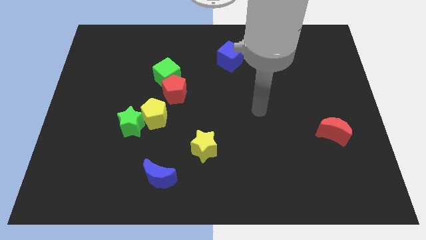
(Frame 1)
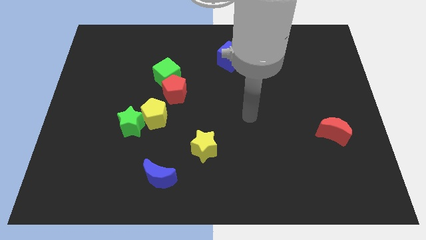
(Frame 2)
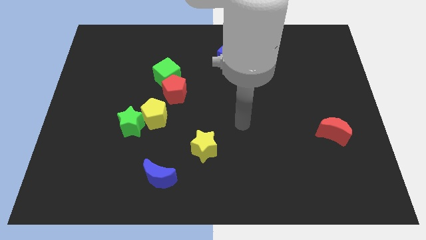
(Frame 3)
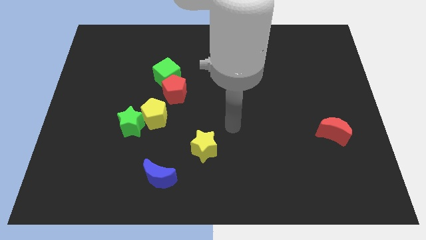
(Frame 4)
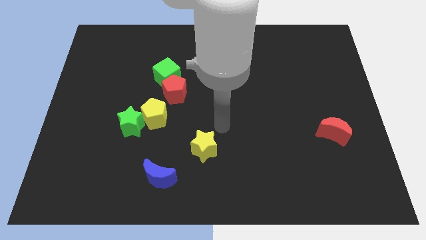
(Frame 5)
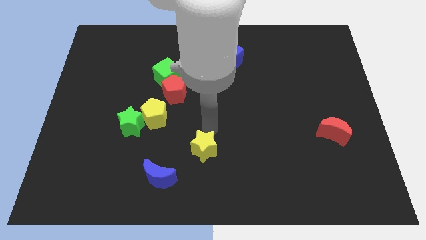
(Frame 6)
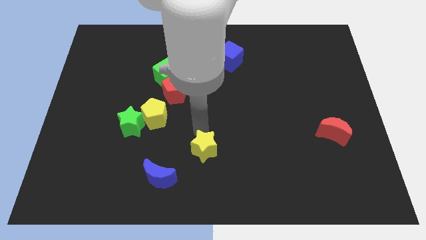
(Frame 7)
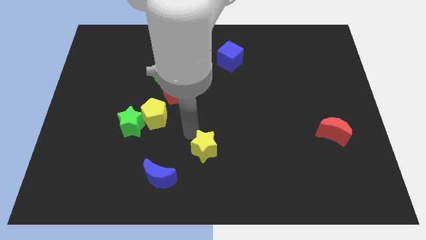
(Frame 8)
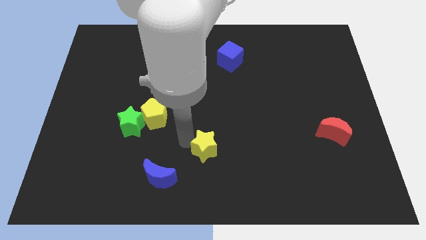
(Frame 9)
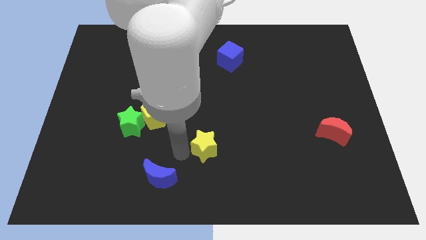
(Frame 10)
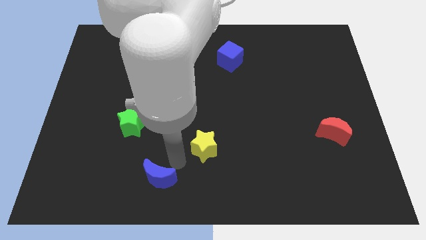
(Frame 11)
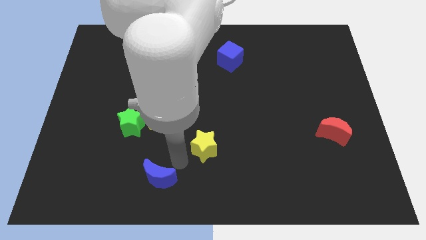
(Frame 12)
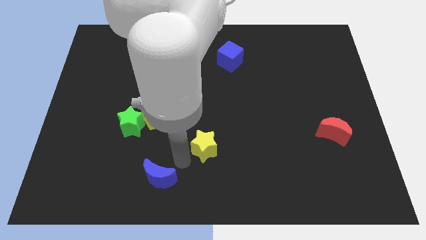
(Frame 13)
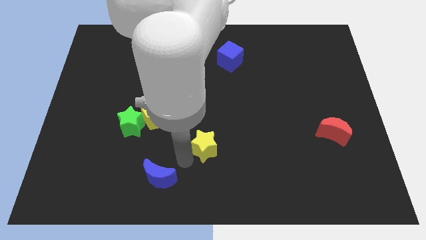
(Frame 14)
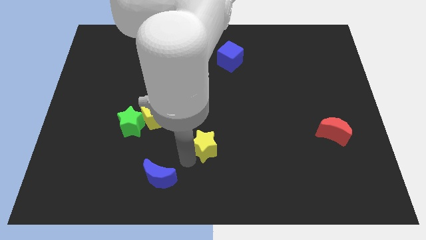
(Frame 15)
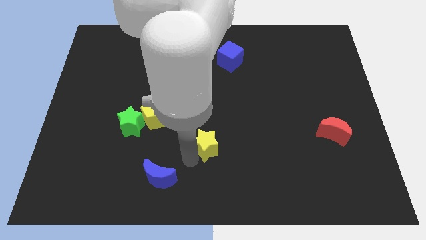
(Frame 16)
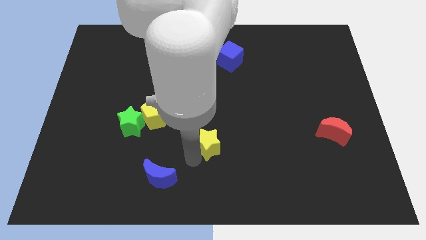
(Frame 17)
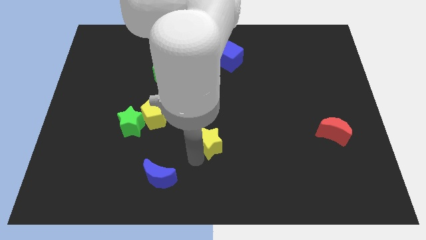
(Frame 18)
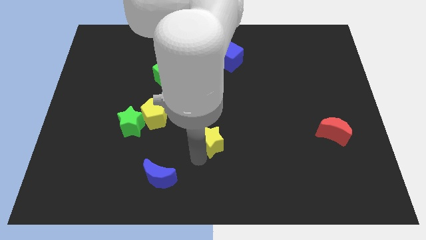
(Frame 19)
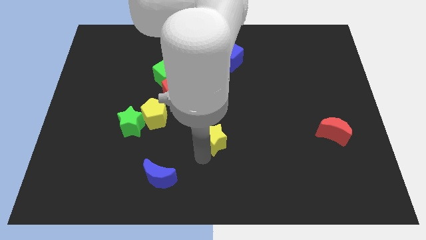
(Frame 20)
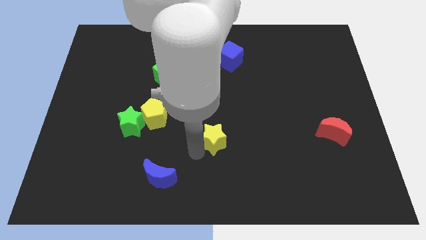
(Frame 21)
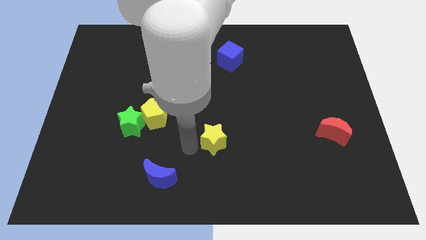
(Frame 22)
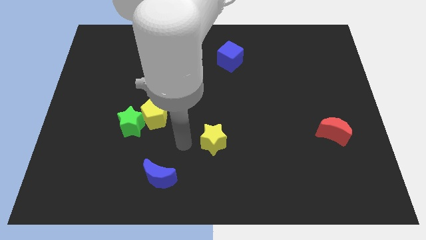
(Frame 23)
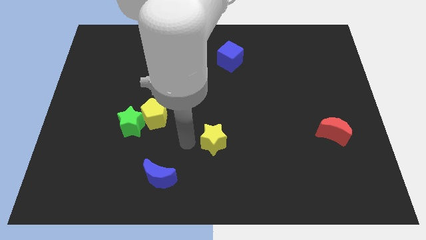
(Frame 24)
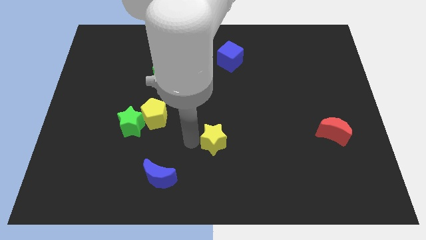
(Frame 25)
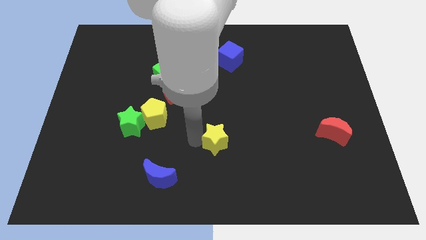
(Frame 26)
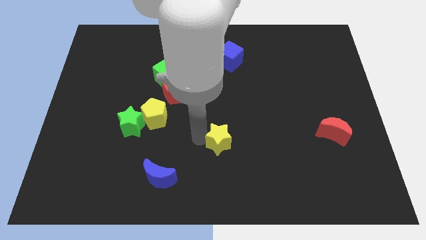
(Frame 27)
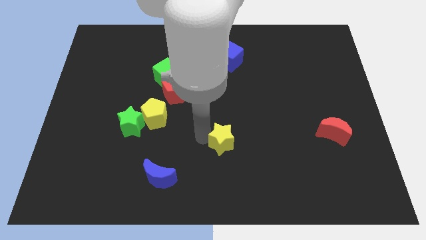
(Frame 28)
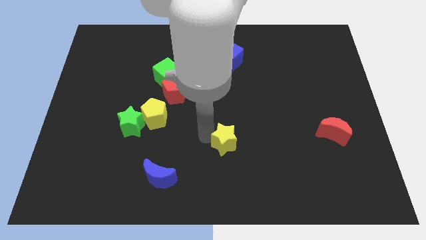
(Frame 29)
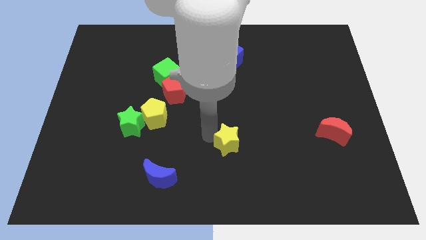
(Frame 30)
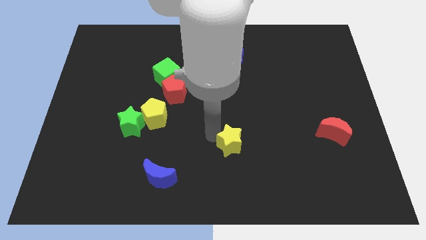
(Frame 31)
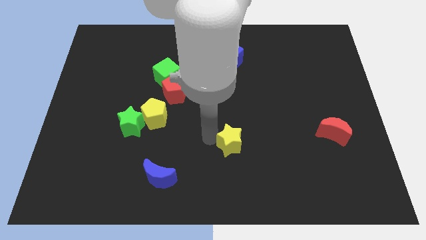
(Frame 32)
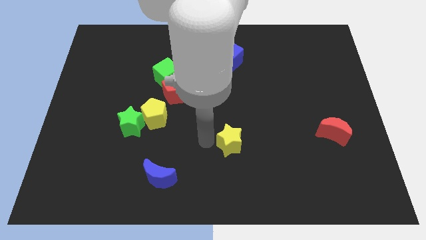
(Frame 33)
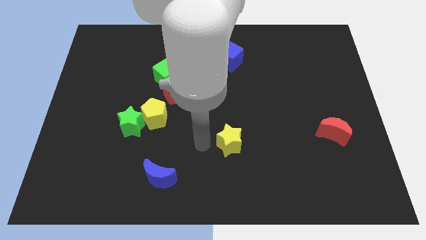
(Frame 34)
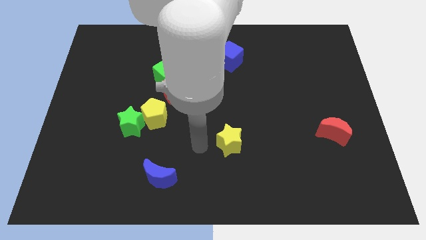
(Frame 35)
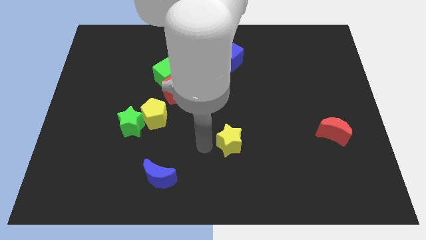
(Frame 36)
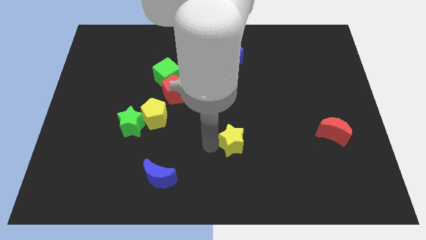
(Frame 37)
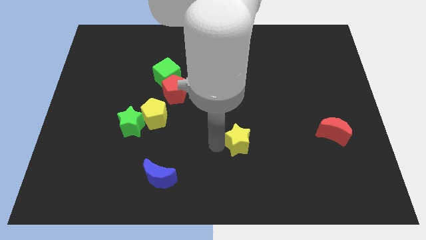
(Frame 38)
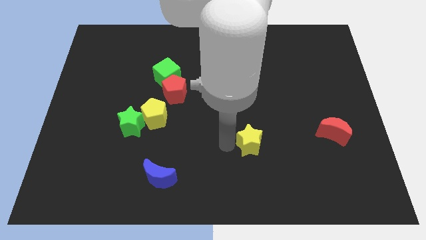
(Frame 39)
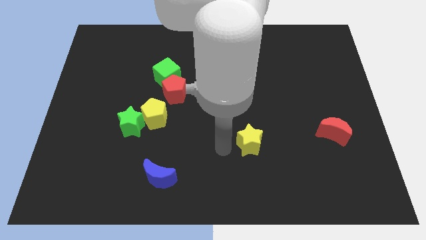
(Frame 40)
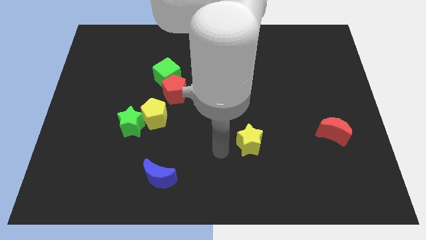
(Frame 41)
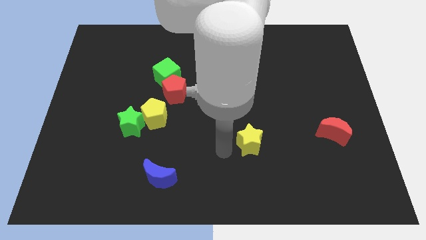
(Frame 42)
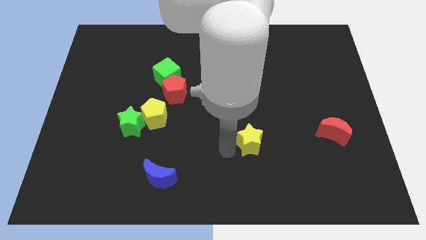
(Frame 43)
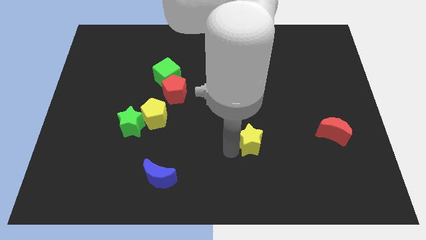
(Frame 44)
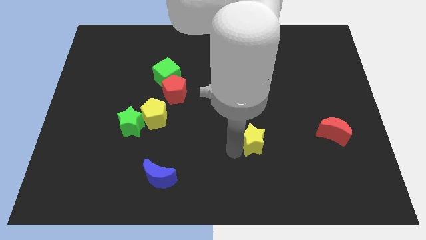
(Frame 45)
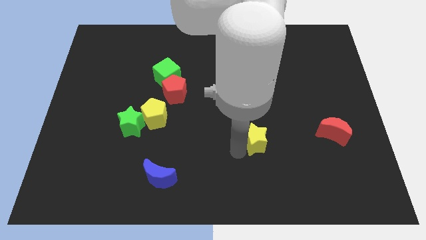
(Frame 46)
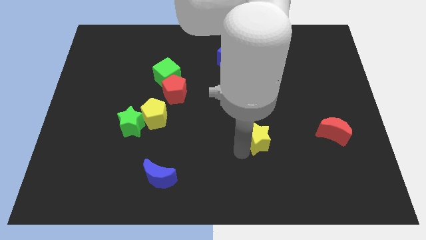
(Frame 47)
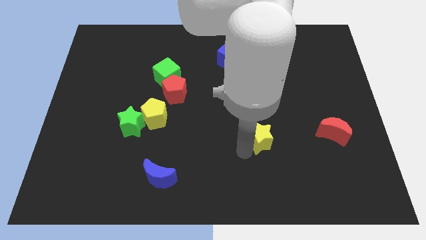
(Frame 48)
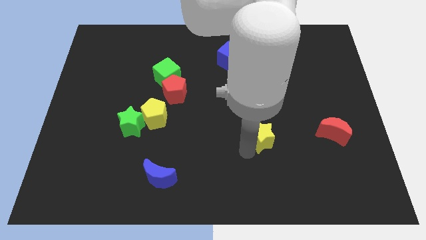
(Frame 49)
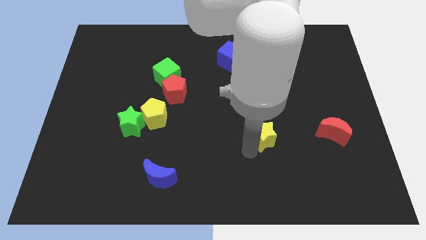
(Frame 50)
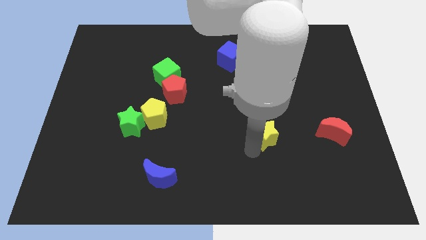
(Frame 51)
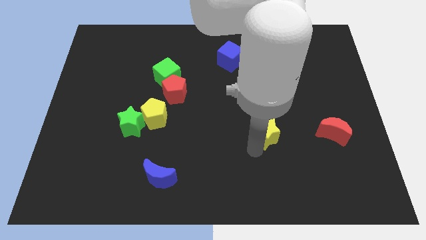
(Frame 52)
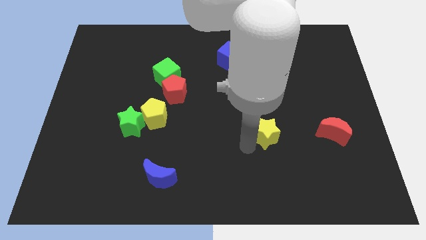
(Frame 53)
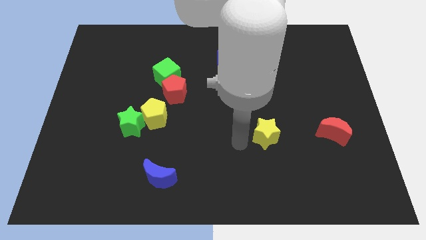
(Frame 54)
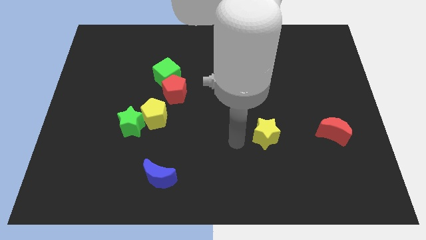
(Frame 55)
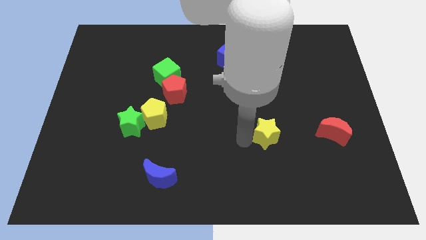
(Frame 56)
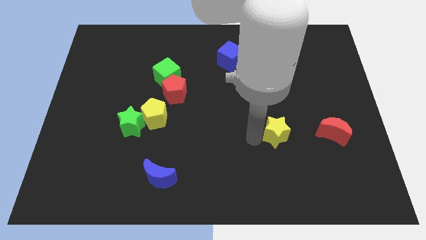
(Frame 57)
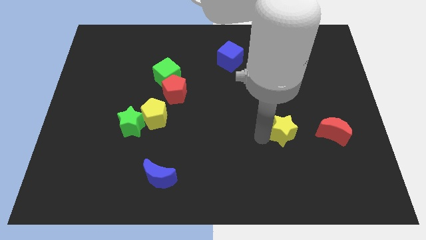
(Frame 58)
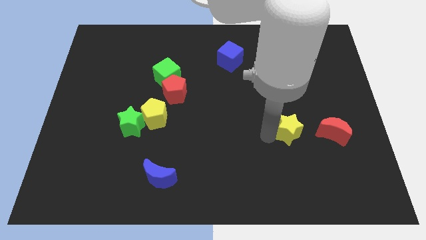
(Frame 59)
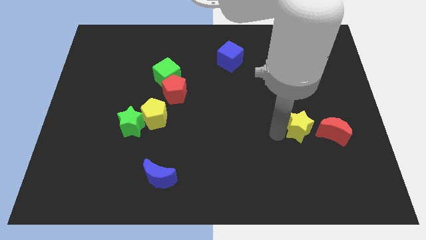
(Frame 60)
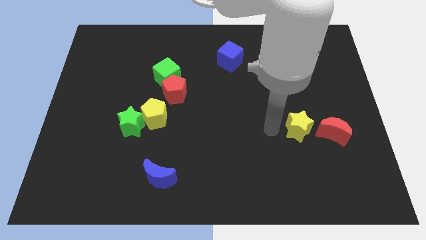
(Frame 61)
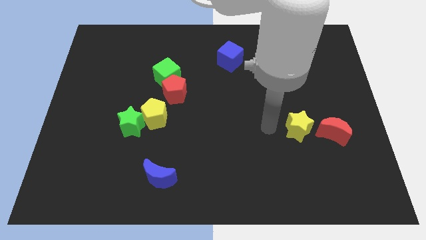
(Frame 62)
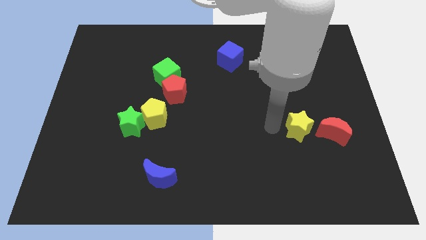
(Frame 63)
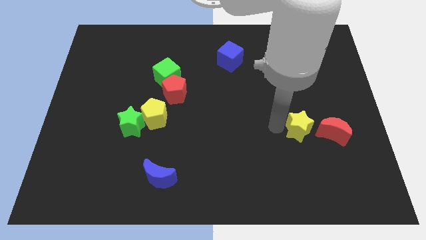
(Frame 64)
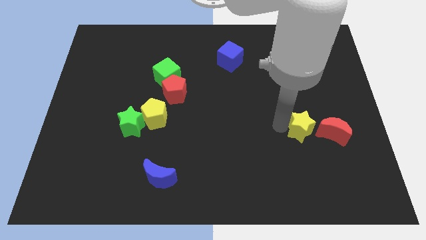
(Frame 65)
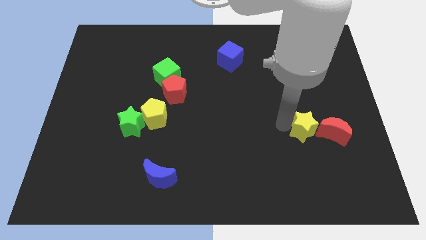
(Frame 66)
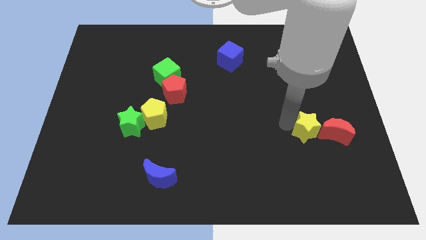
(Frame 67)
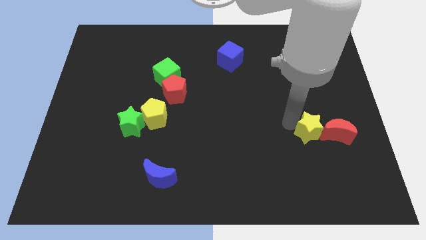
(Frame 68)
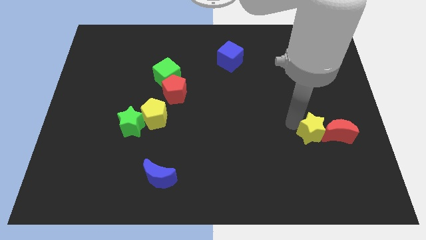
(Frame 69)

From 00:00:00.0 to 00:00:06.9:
move the yellow star to the red moon

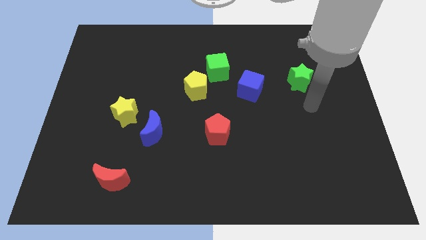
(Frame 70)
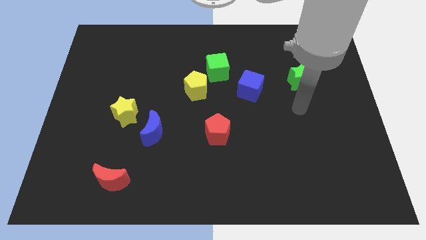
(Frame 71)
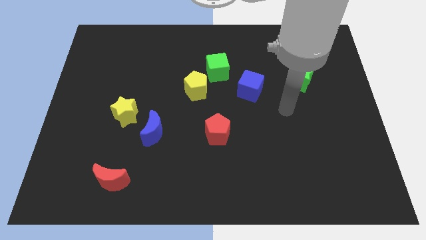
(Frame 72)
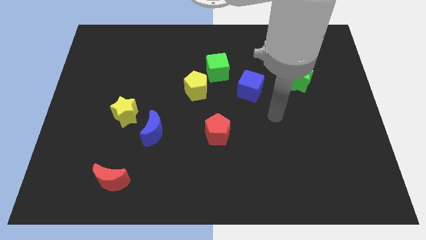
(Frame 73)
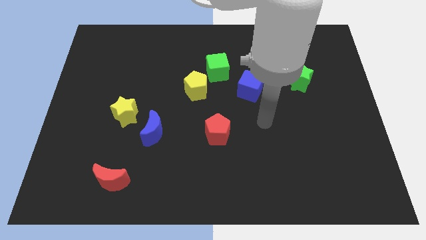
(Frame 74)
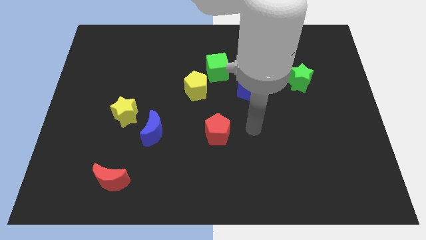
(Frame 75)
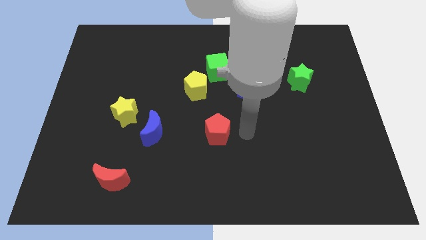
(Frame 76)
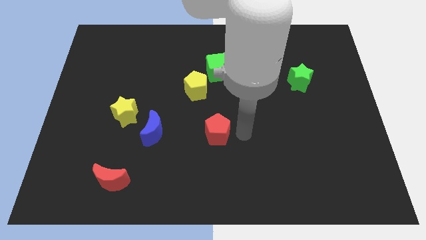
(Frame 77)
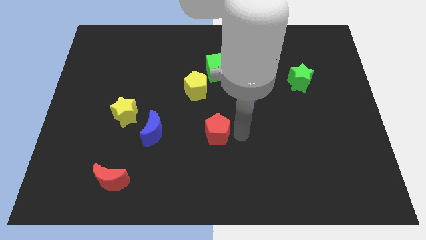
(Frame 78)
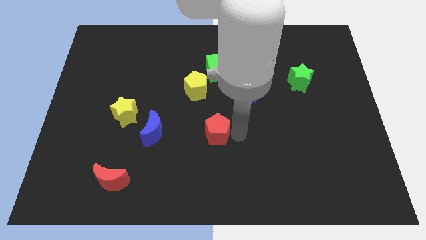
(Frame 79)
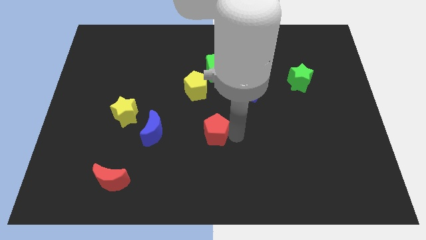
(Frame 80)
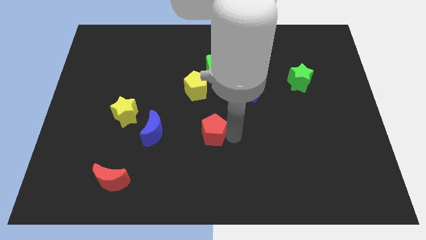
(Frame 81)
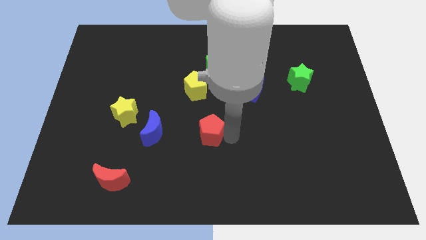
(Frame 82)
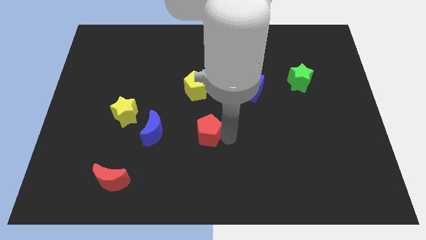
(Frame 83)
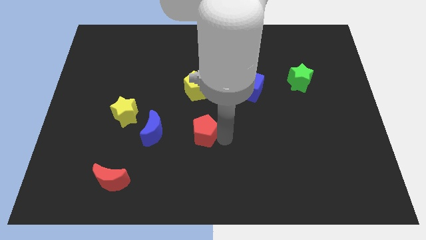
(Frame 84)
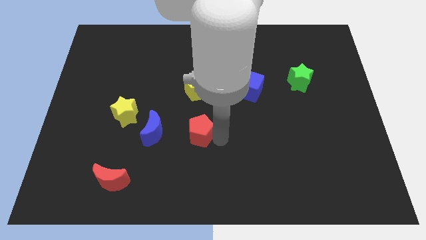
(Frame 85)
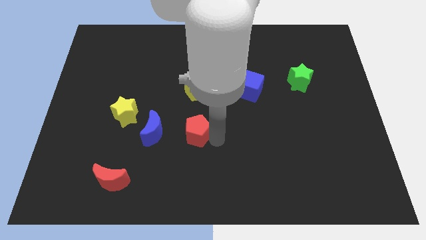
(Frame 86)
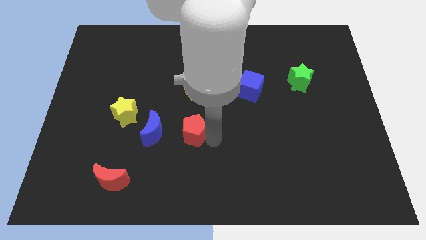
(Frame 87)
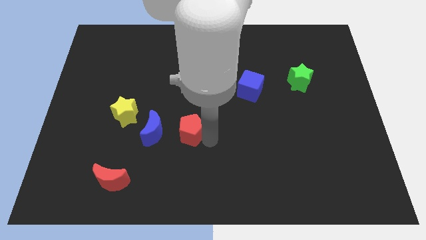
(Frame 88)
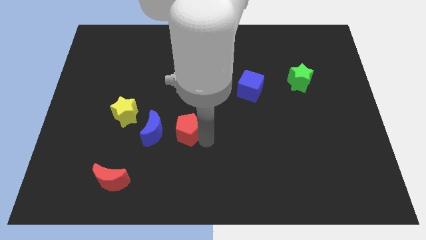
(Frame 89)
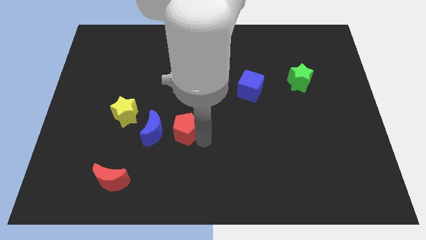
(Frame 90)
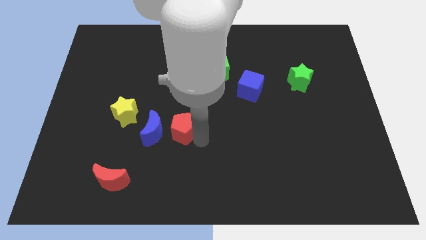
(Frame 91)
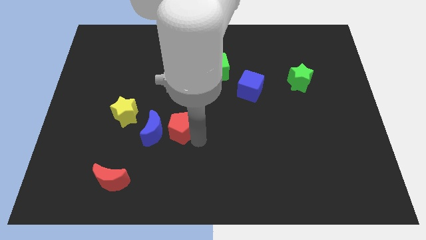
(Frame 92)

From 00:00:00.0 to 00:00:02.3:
put the red pentagon close to the blue moon
